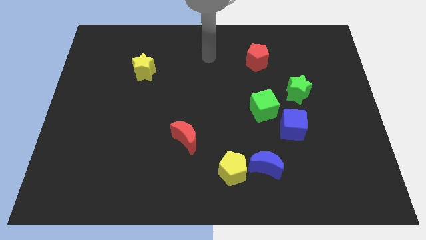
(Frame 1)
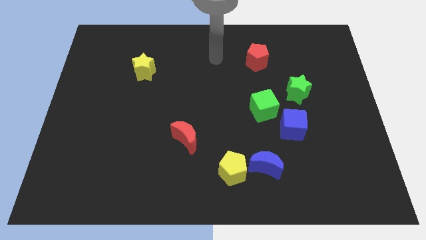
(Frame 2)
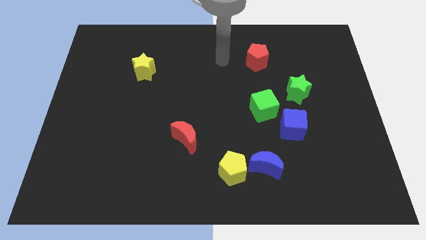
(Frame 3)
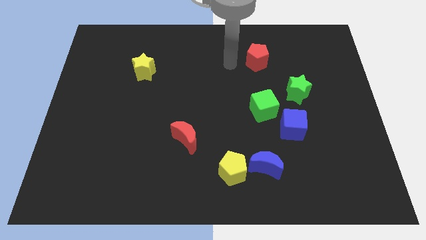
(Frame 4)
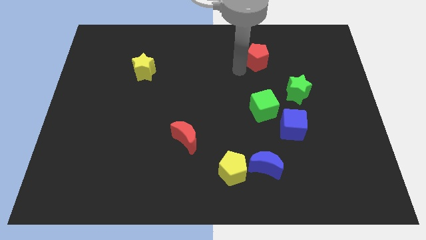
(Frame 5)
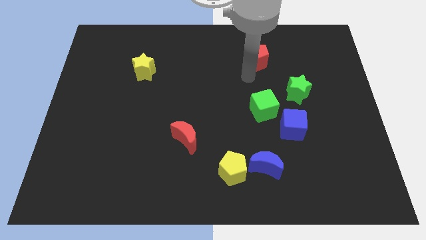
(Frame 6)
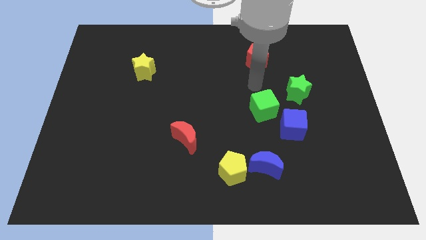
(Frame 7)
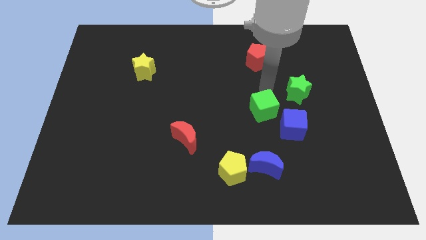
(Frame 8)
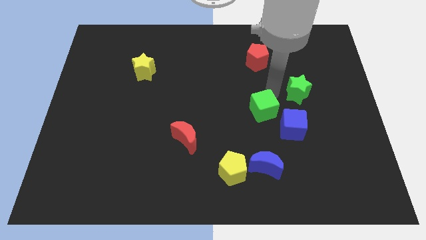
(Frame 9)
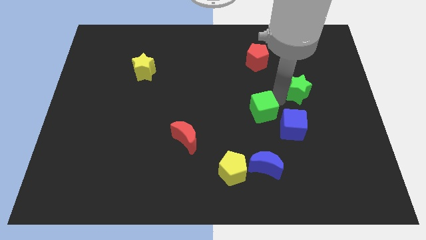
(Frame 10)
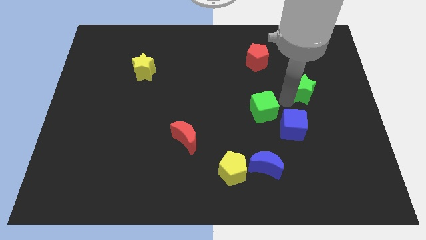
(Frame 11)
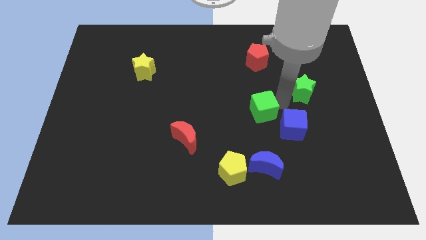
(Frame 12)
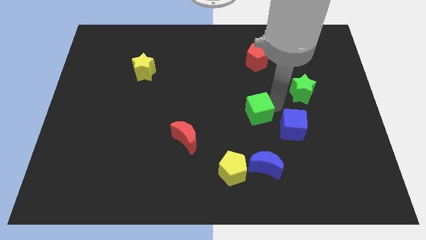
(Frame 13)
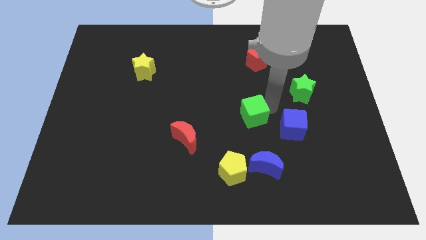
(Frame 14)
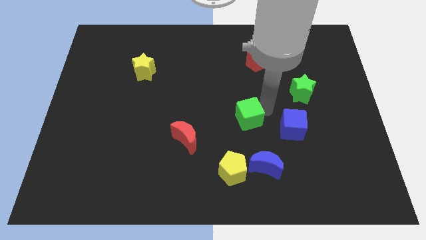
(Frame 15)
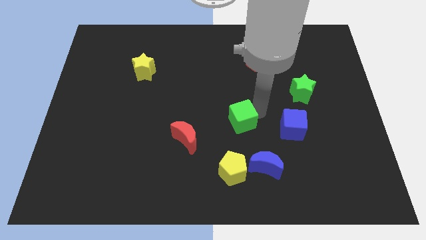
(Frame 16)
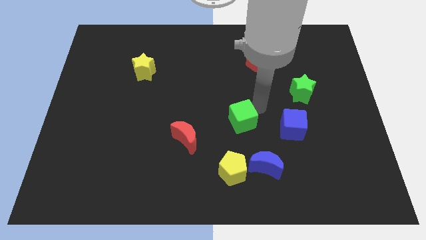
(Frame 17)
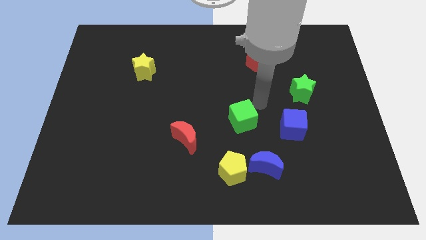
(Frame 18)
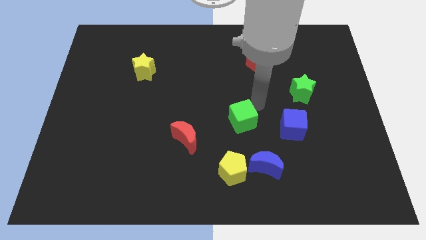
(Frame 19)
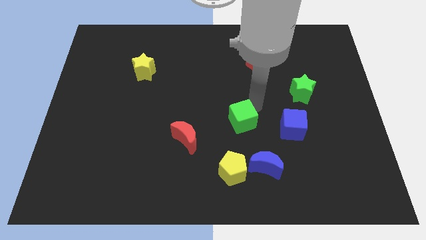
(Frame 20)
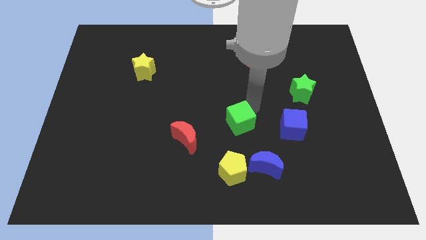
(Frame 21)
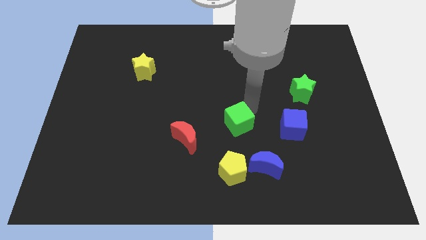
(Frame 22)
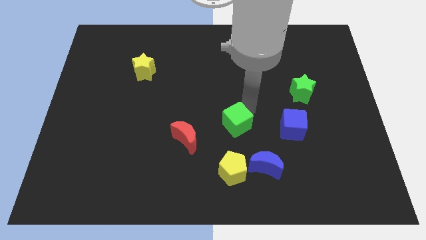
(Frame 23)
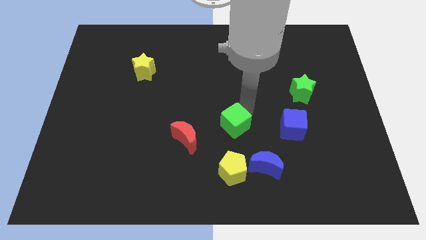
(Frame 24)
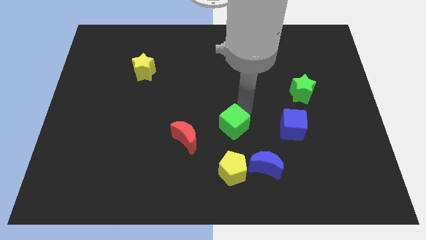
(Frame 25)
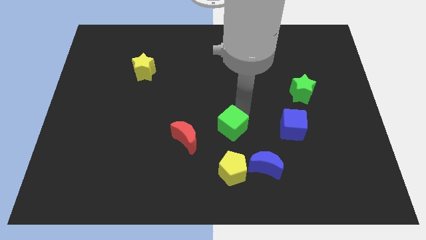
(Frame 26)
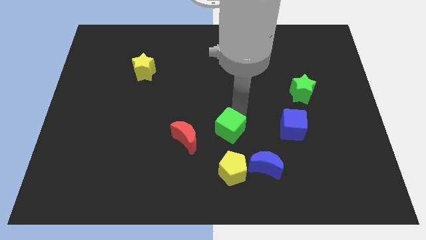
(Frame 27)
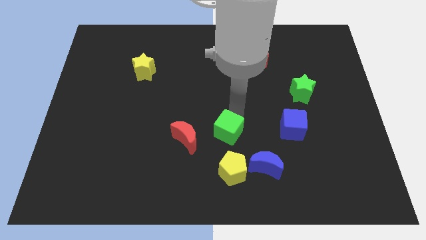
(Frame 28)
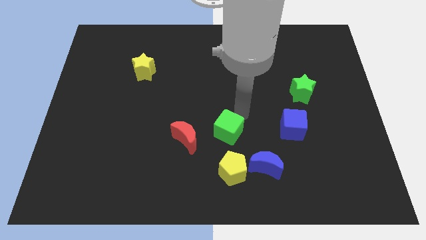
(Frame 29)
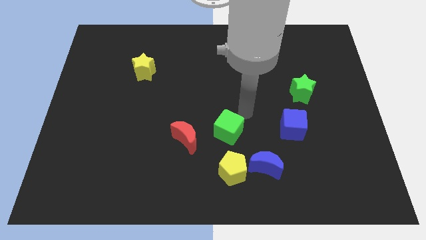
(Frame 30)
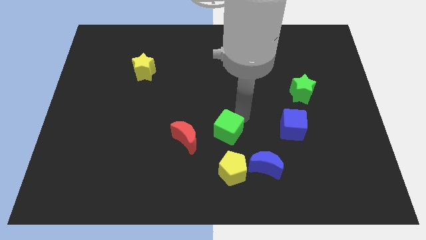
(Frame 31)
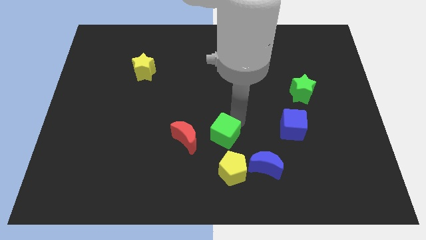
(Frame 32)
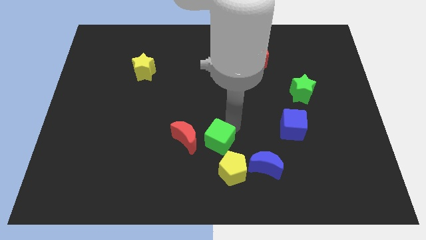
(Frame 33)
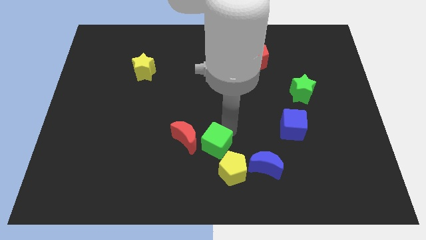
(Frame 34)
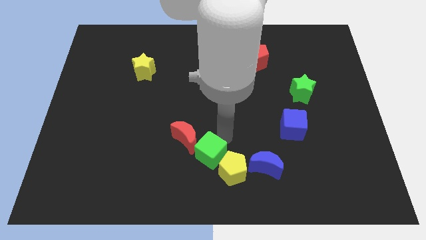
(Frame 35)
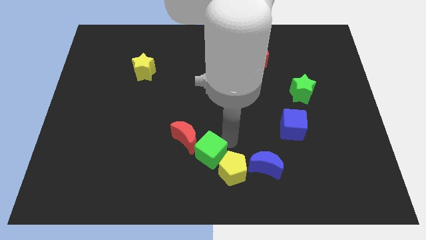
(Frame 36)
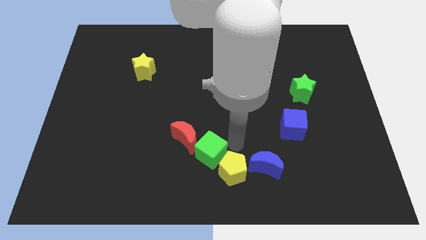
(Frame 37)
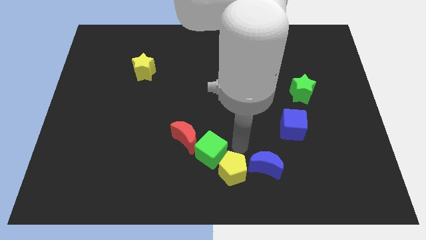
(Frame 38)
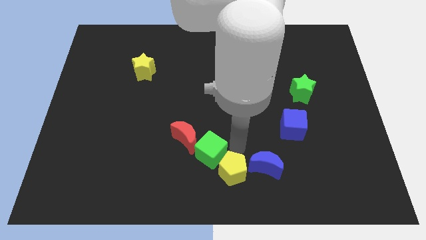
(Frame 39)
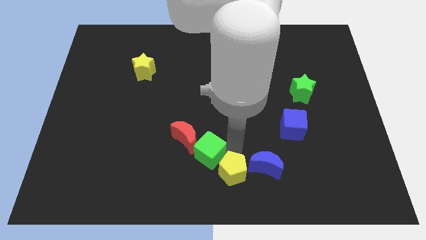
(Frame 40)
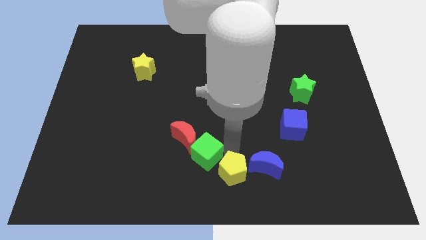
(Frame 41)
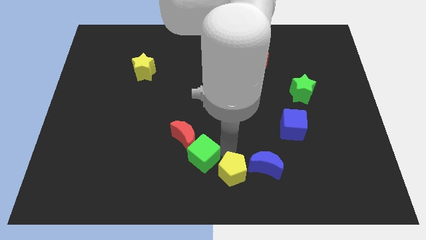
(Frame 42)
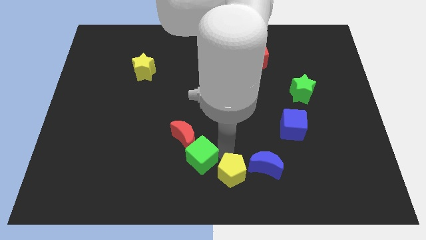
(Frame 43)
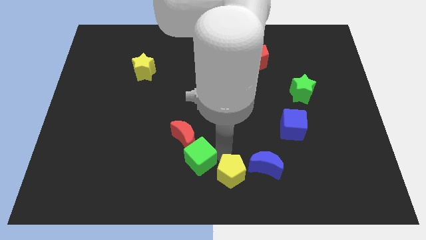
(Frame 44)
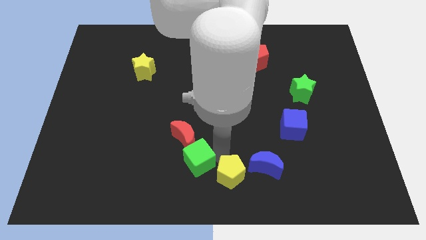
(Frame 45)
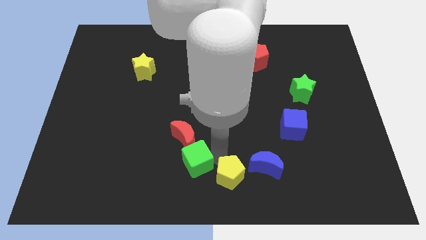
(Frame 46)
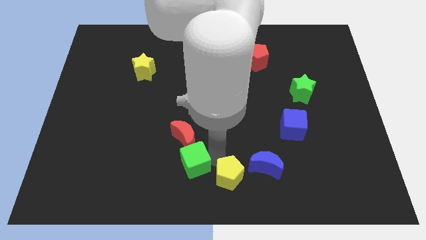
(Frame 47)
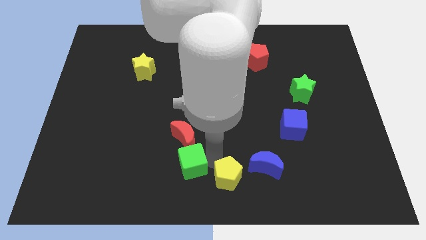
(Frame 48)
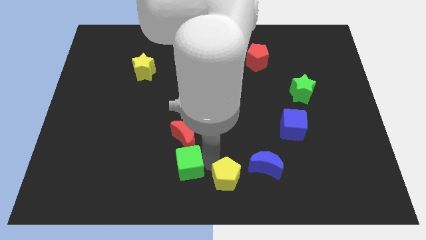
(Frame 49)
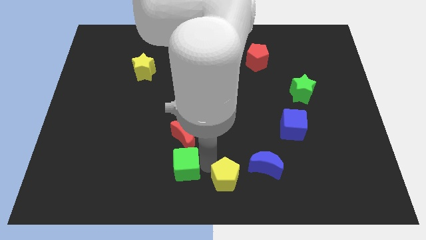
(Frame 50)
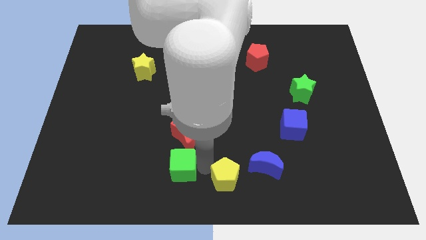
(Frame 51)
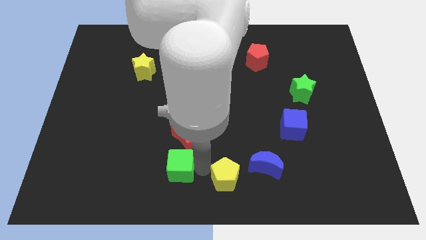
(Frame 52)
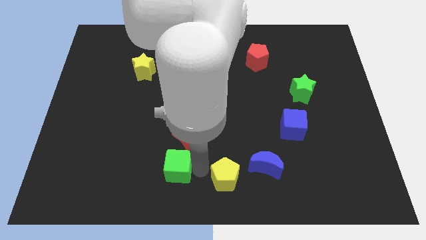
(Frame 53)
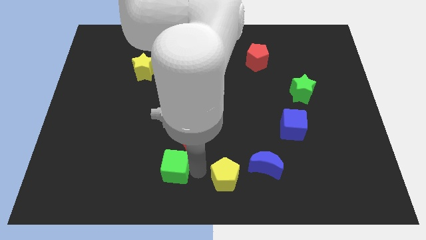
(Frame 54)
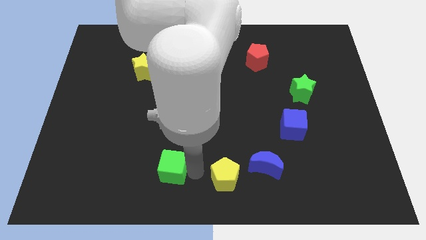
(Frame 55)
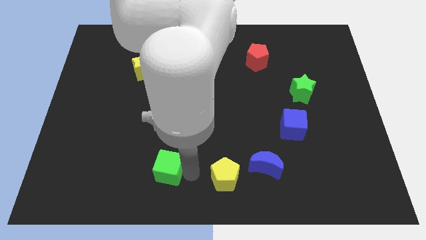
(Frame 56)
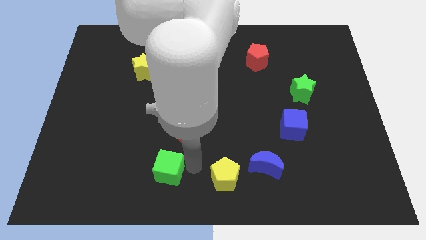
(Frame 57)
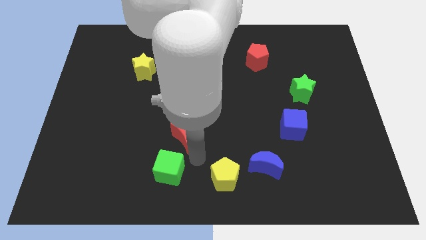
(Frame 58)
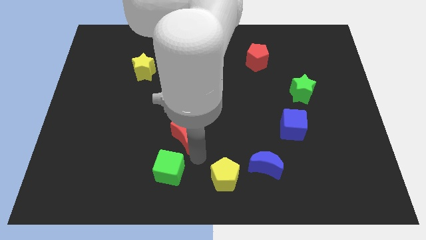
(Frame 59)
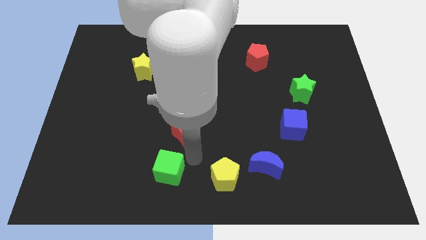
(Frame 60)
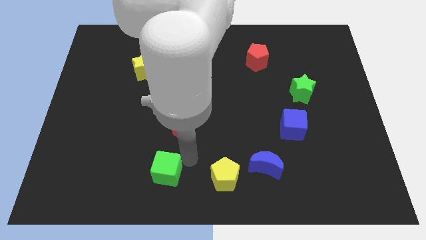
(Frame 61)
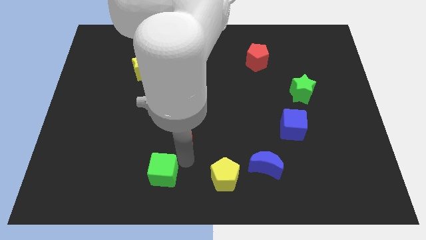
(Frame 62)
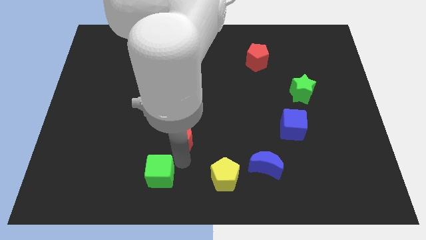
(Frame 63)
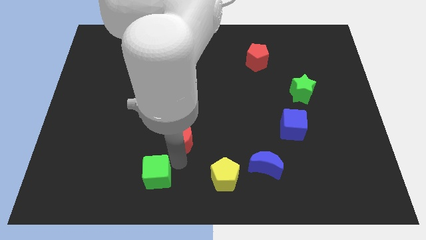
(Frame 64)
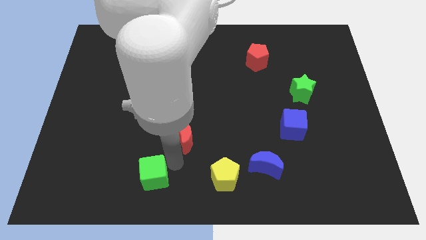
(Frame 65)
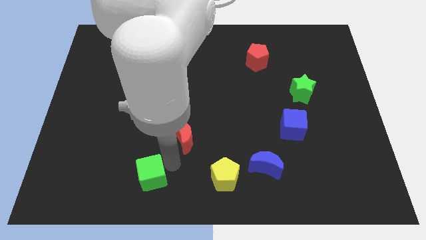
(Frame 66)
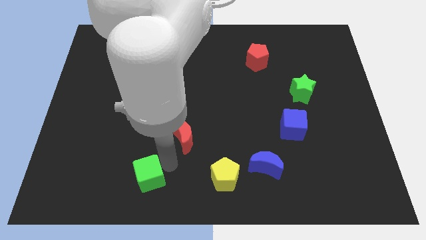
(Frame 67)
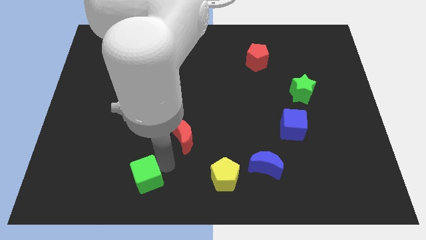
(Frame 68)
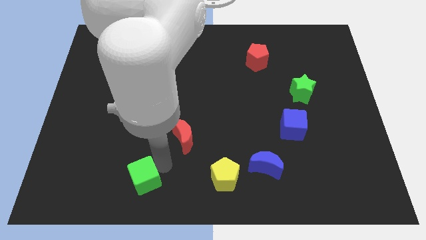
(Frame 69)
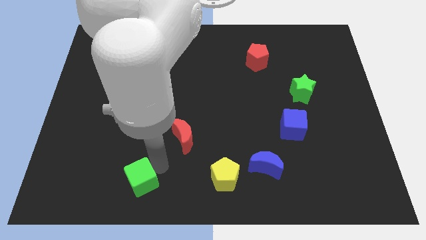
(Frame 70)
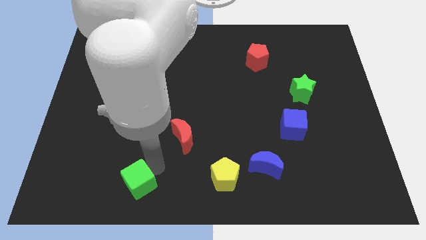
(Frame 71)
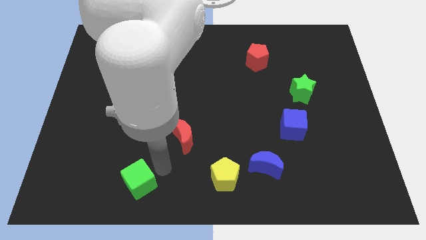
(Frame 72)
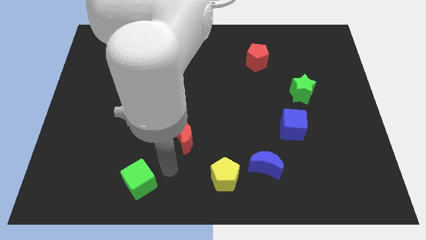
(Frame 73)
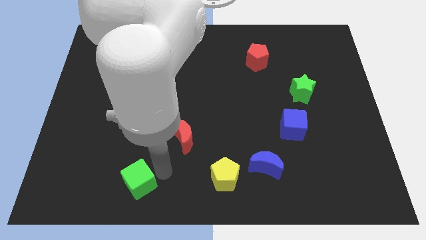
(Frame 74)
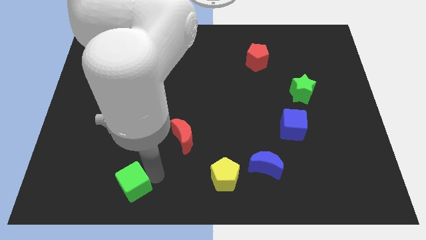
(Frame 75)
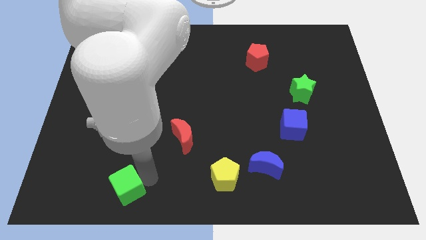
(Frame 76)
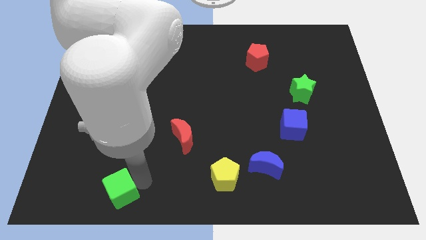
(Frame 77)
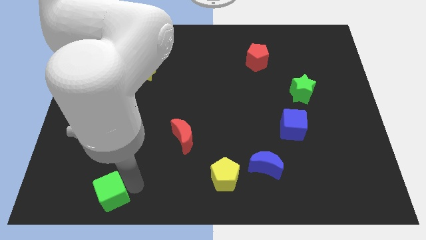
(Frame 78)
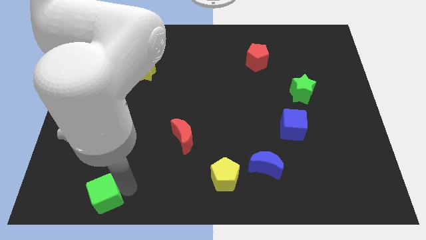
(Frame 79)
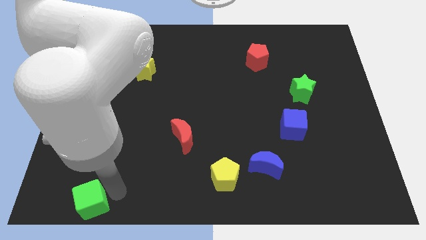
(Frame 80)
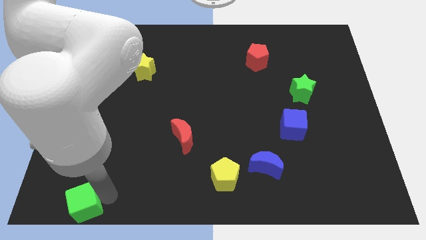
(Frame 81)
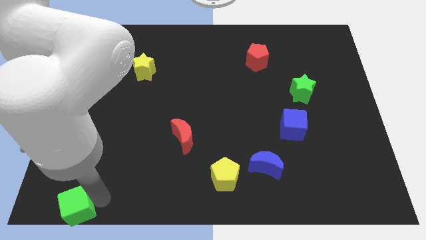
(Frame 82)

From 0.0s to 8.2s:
slide the green cube to the bottom left of the board
